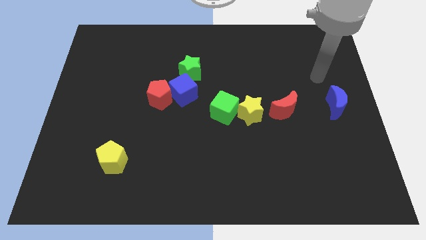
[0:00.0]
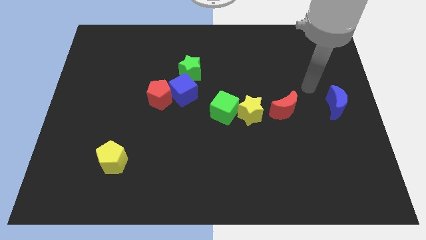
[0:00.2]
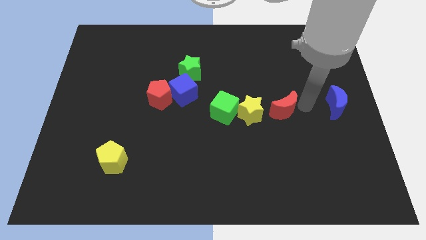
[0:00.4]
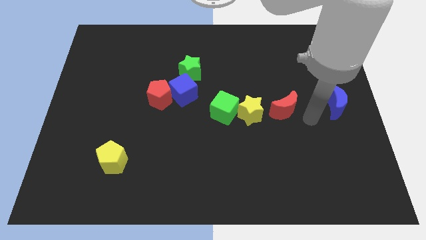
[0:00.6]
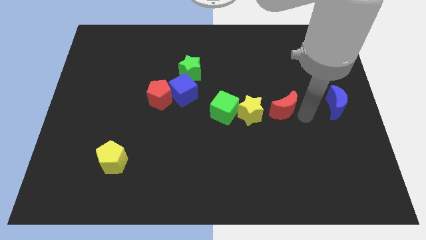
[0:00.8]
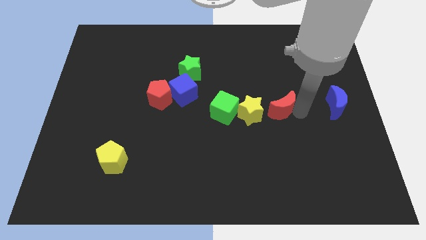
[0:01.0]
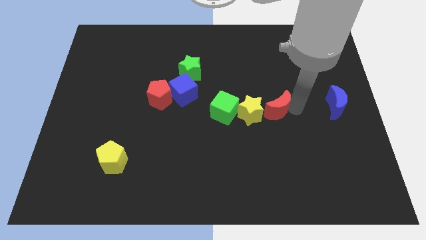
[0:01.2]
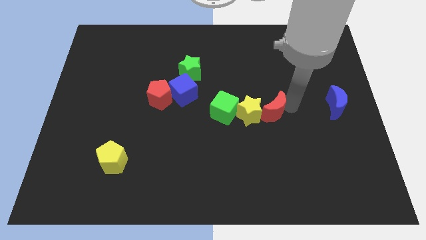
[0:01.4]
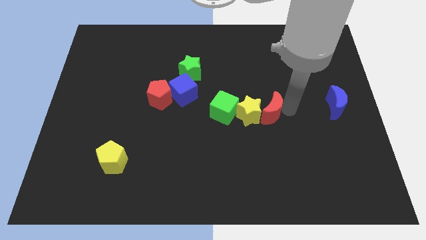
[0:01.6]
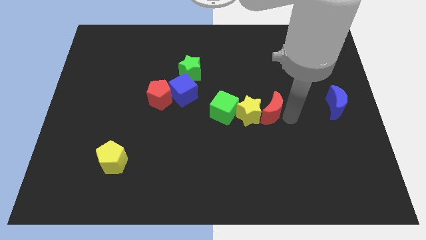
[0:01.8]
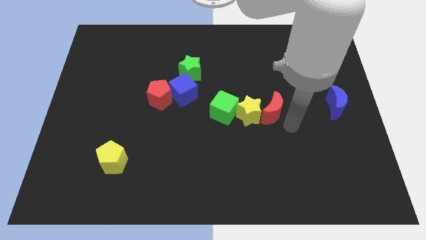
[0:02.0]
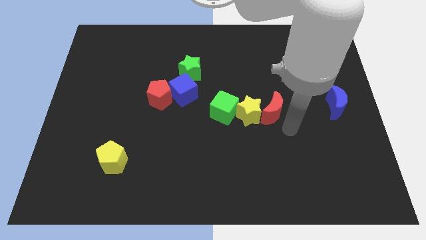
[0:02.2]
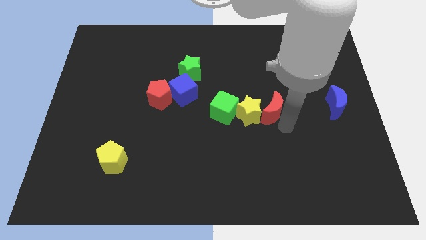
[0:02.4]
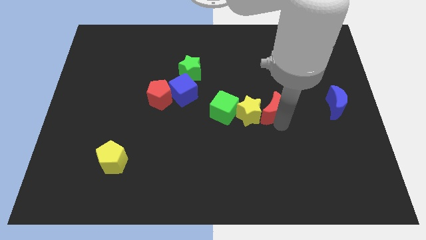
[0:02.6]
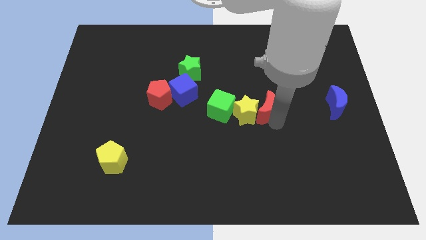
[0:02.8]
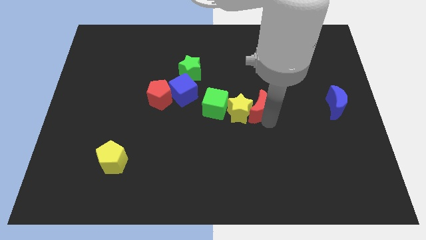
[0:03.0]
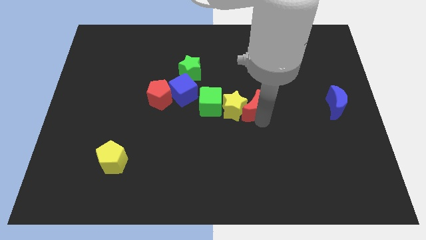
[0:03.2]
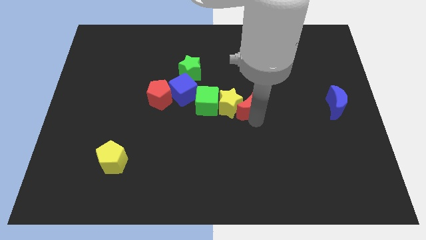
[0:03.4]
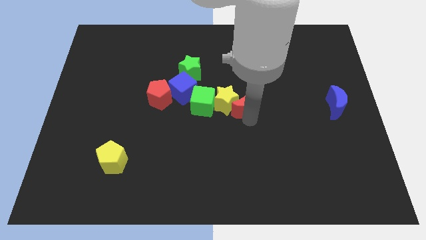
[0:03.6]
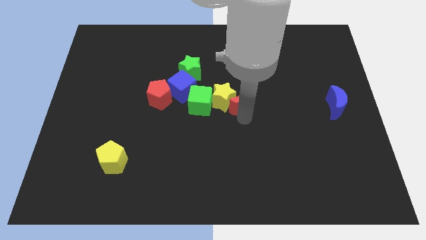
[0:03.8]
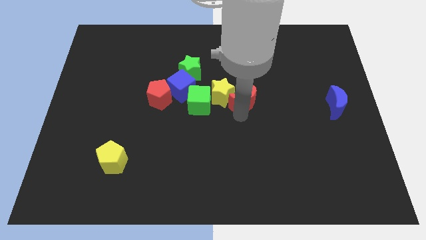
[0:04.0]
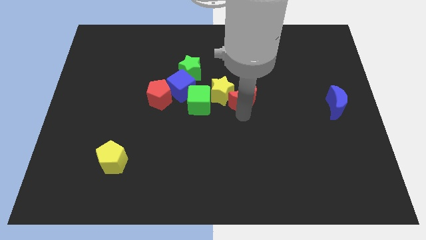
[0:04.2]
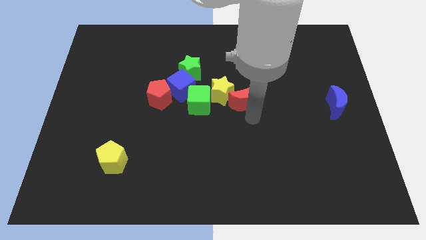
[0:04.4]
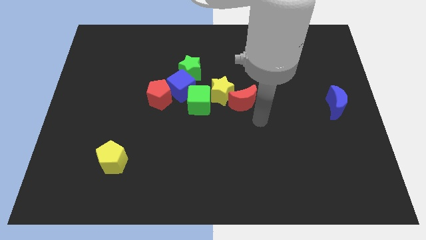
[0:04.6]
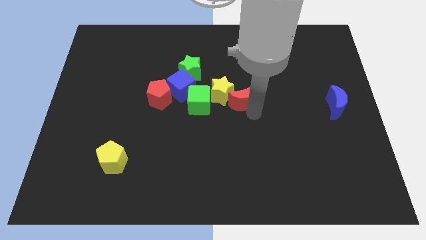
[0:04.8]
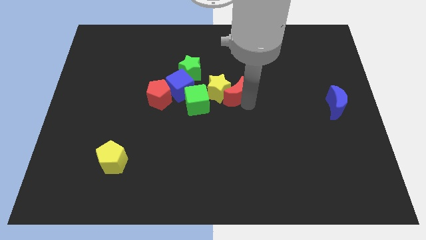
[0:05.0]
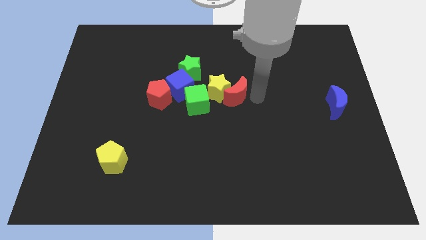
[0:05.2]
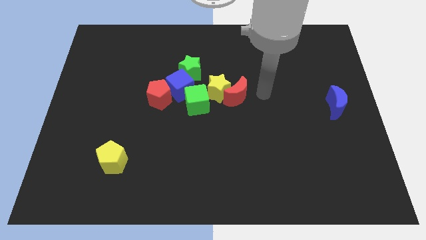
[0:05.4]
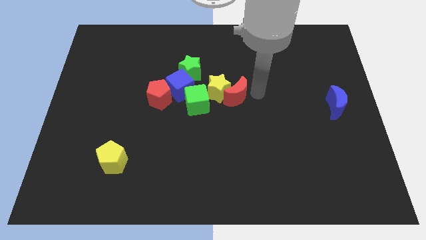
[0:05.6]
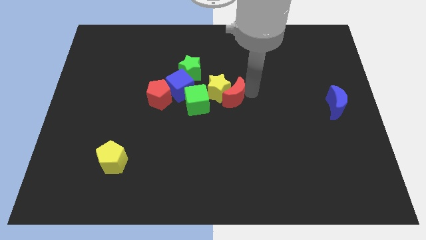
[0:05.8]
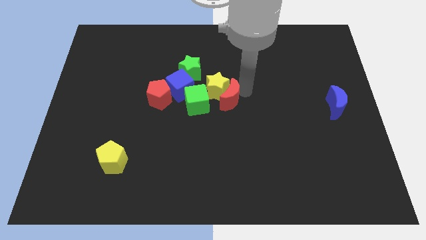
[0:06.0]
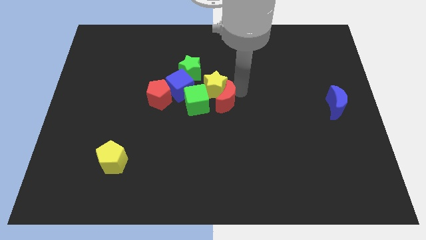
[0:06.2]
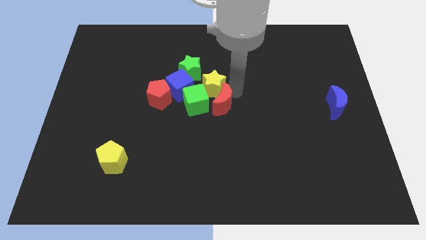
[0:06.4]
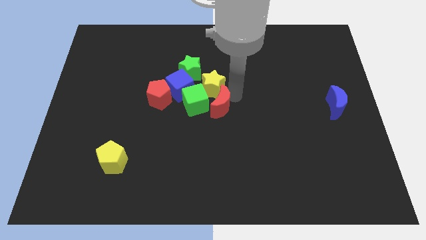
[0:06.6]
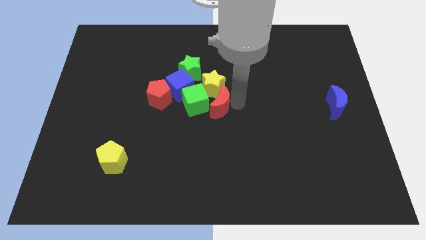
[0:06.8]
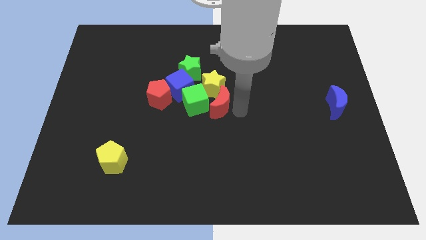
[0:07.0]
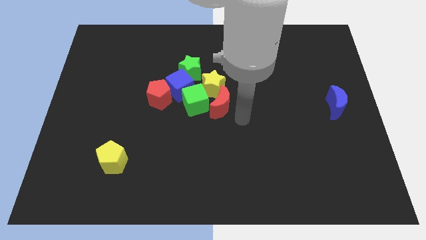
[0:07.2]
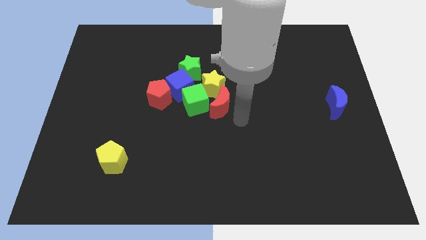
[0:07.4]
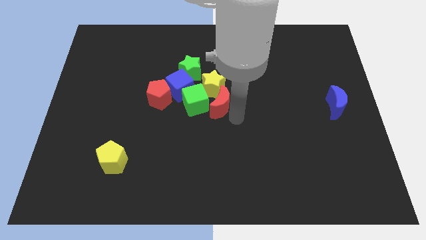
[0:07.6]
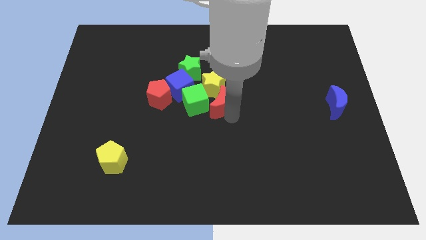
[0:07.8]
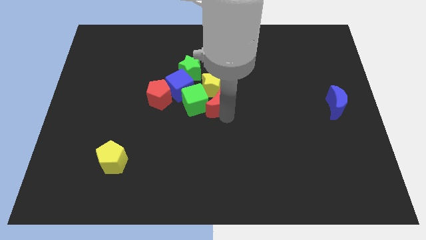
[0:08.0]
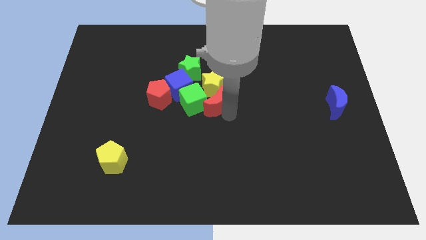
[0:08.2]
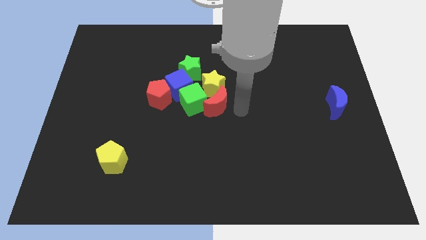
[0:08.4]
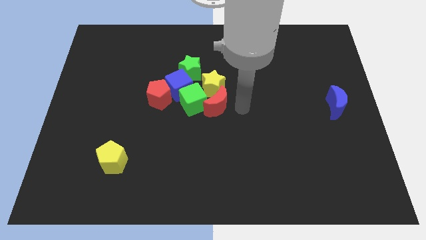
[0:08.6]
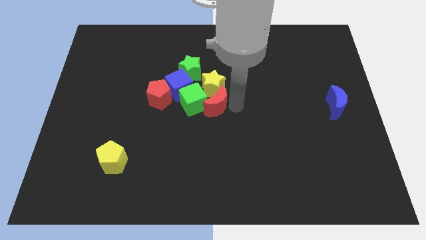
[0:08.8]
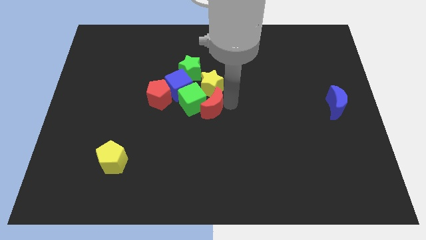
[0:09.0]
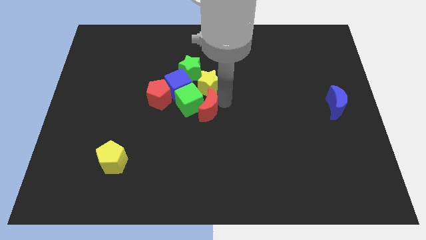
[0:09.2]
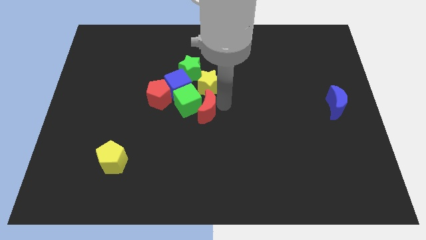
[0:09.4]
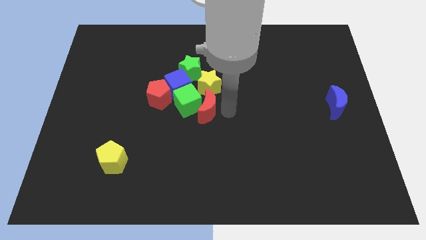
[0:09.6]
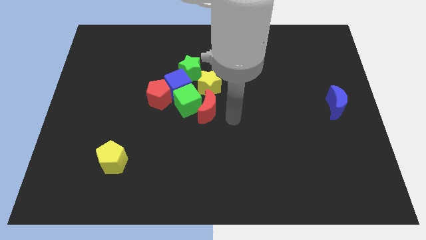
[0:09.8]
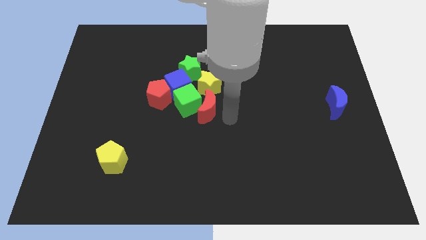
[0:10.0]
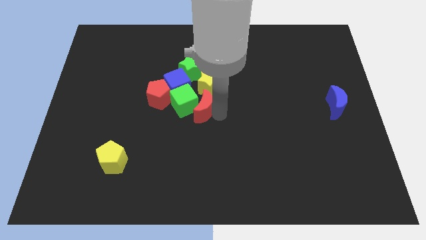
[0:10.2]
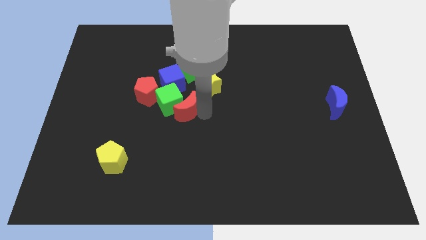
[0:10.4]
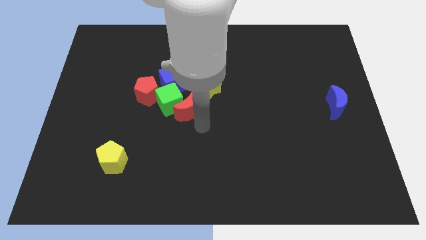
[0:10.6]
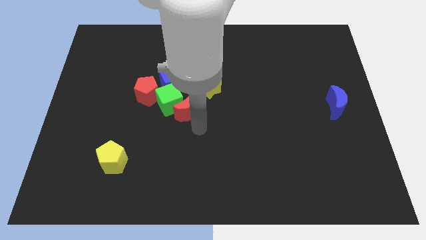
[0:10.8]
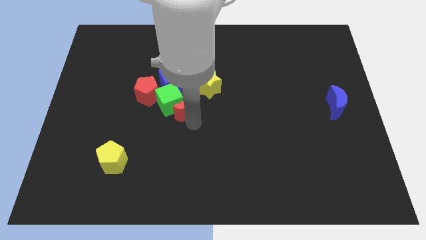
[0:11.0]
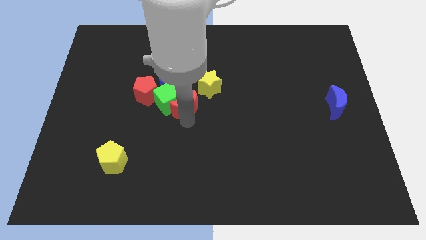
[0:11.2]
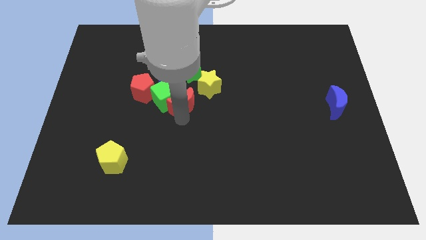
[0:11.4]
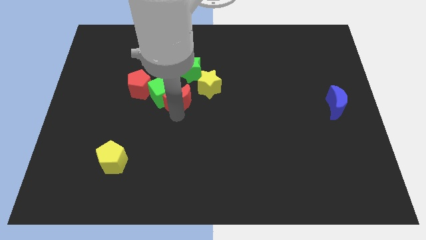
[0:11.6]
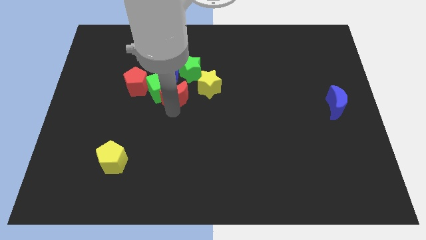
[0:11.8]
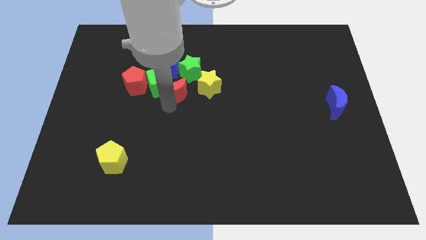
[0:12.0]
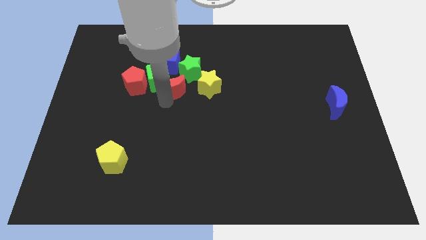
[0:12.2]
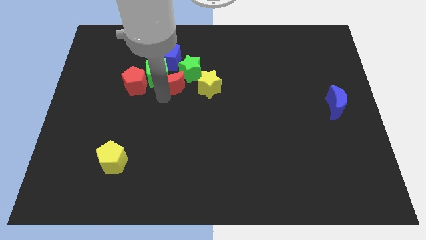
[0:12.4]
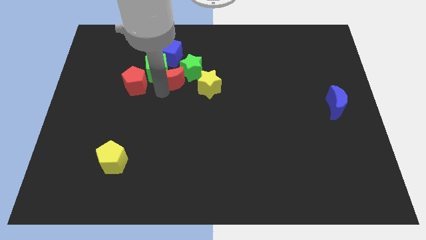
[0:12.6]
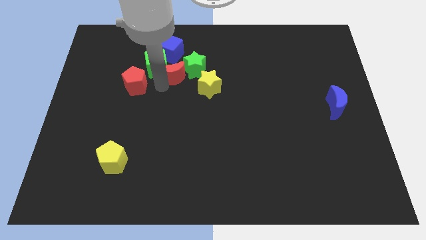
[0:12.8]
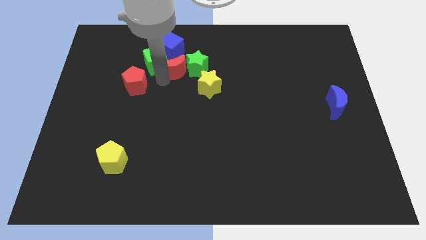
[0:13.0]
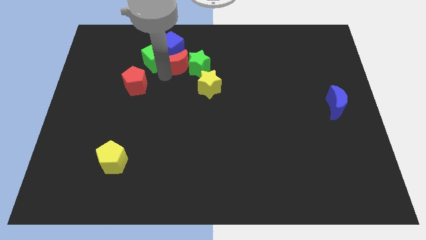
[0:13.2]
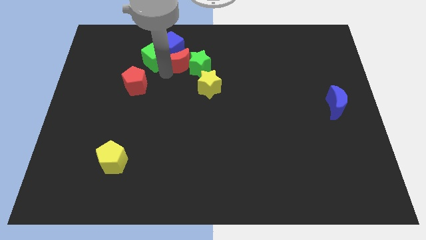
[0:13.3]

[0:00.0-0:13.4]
slide the red moon to the blue cube
